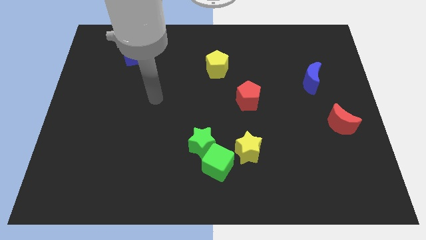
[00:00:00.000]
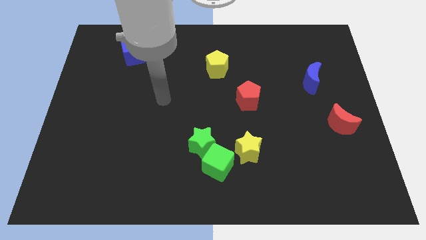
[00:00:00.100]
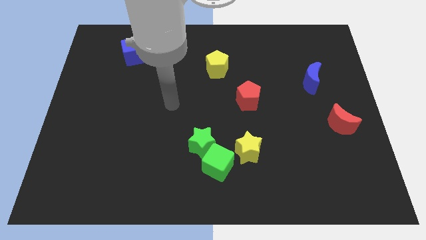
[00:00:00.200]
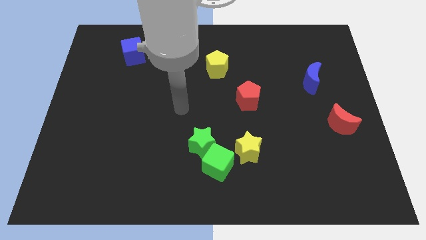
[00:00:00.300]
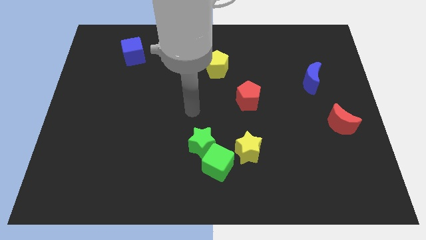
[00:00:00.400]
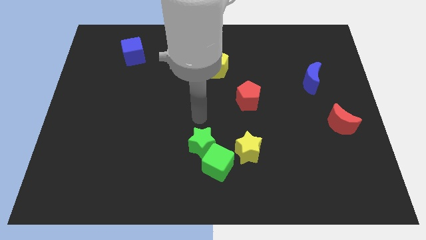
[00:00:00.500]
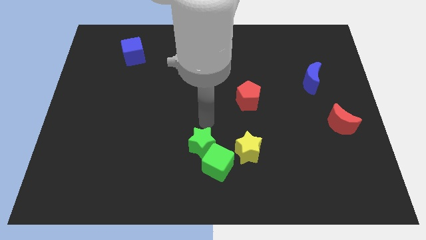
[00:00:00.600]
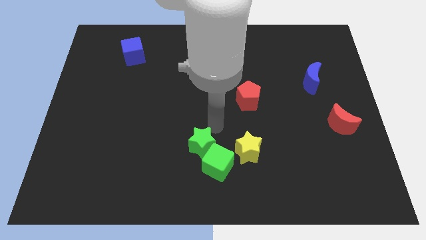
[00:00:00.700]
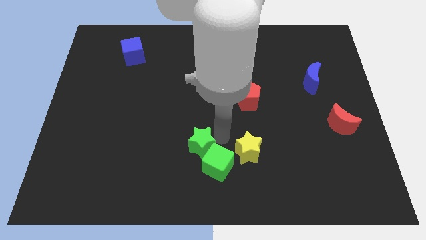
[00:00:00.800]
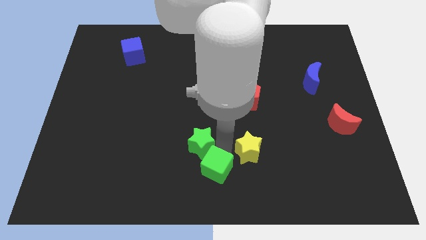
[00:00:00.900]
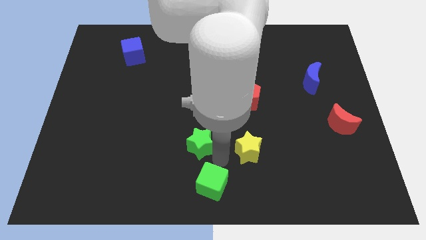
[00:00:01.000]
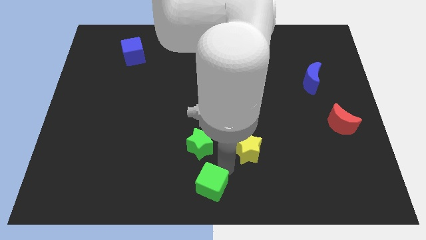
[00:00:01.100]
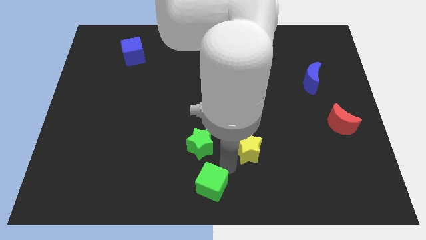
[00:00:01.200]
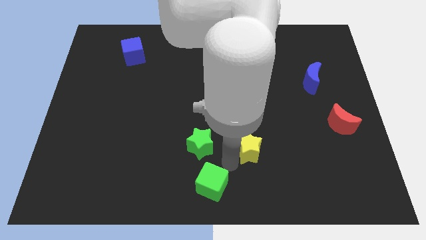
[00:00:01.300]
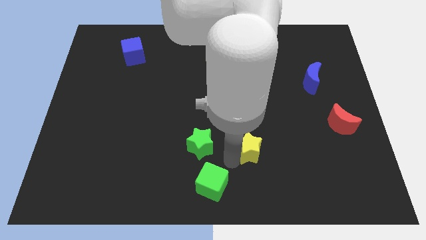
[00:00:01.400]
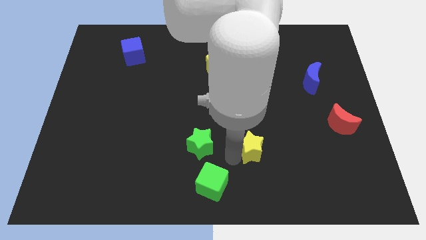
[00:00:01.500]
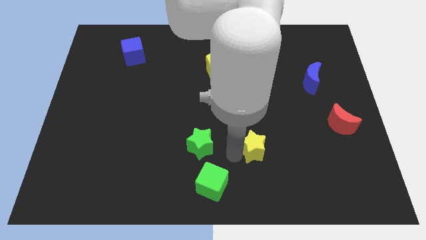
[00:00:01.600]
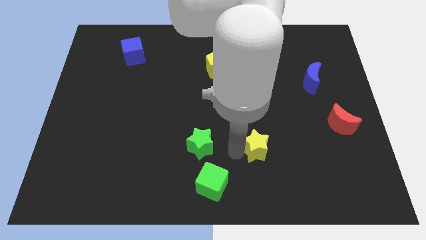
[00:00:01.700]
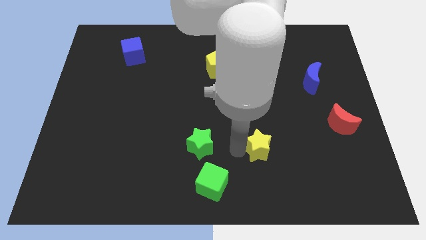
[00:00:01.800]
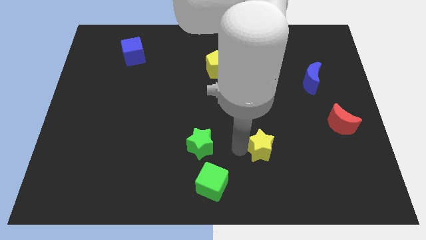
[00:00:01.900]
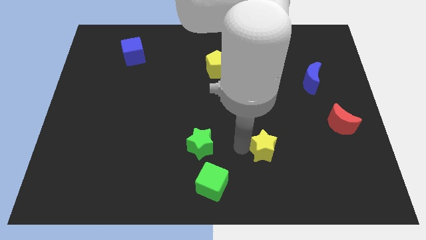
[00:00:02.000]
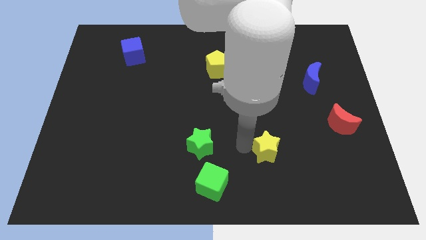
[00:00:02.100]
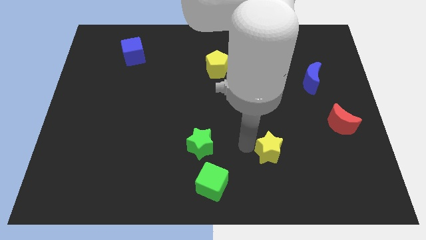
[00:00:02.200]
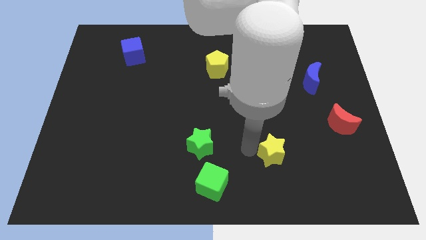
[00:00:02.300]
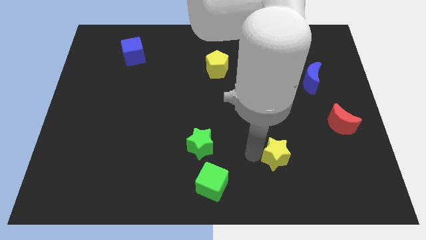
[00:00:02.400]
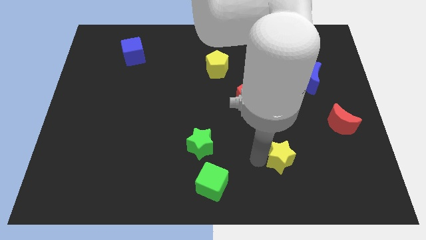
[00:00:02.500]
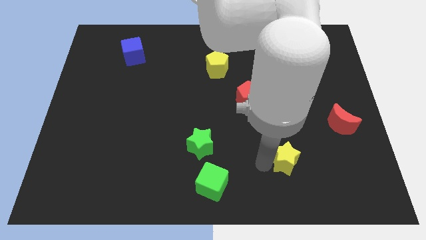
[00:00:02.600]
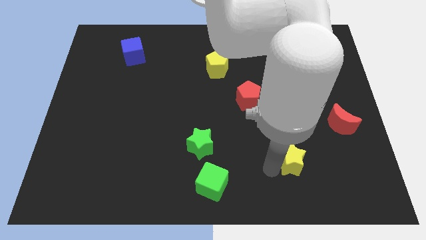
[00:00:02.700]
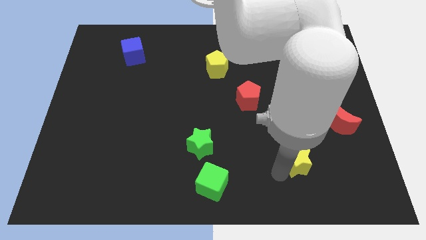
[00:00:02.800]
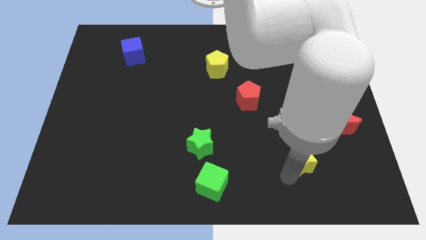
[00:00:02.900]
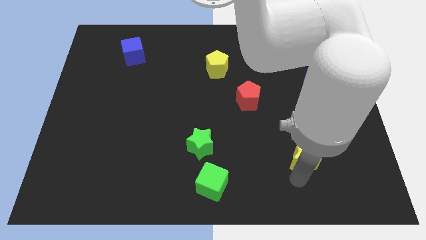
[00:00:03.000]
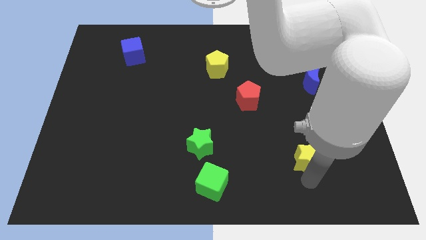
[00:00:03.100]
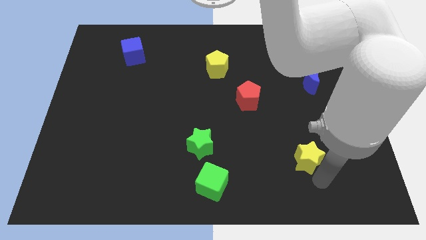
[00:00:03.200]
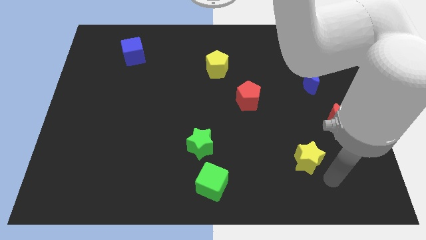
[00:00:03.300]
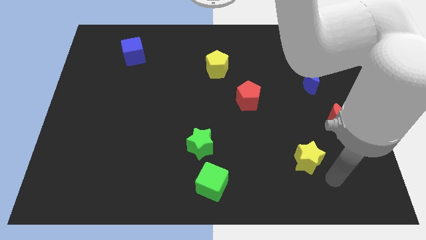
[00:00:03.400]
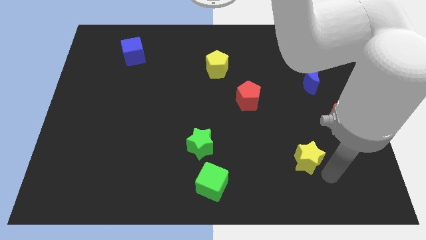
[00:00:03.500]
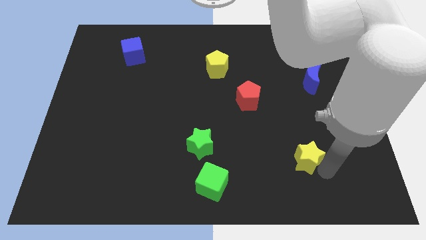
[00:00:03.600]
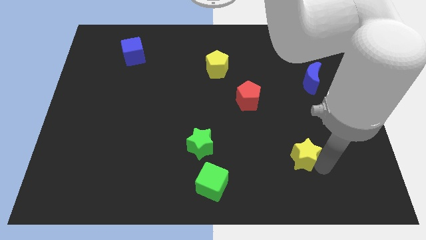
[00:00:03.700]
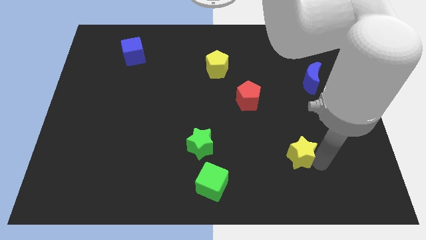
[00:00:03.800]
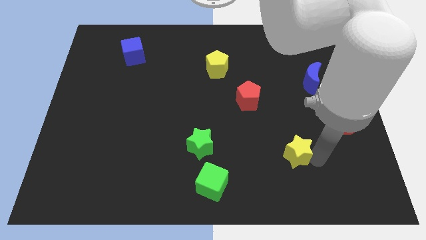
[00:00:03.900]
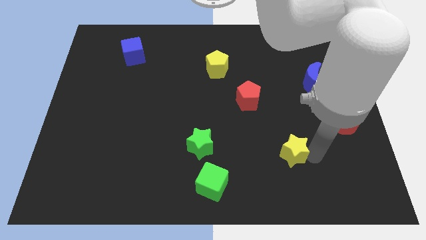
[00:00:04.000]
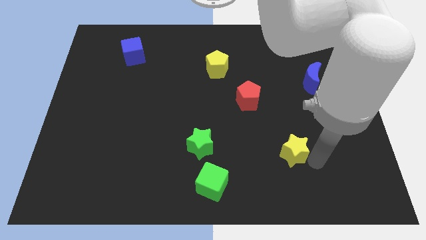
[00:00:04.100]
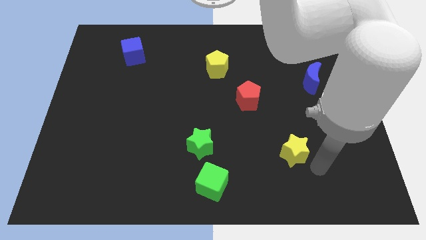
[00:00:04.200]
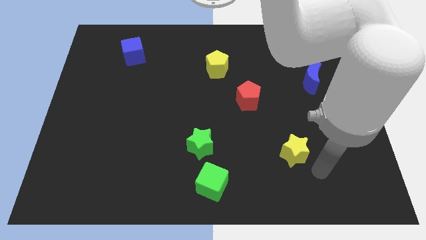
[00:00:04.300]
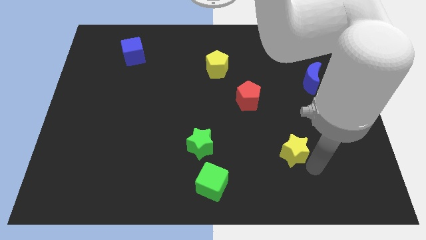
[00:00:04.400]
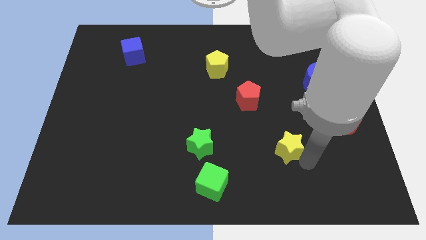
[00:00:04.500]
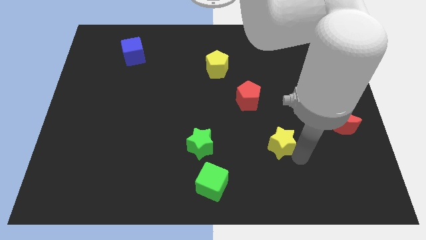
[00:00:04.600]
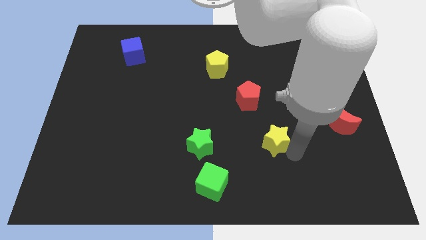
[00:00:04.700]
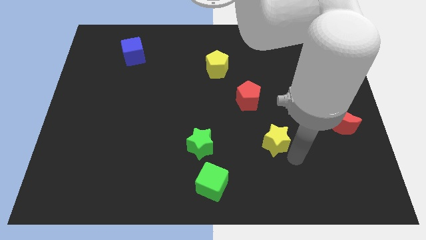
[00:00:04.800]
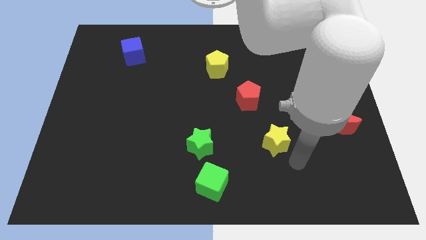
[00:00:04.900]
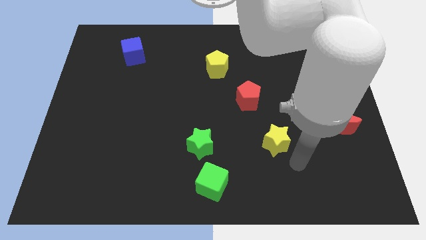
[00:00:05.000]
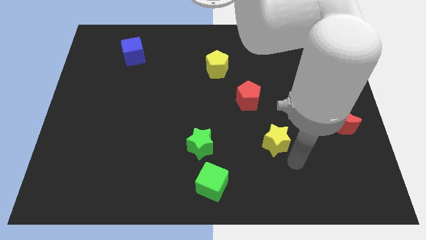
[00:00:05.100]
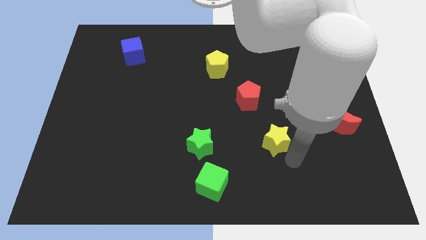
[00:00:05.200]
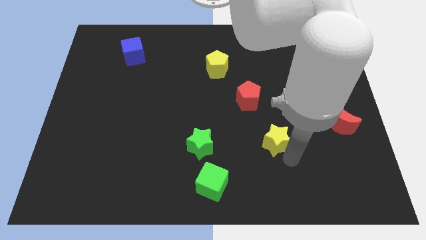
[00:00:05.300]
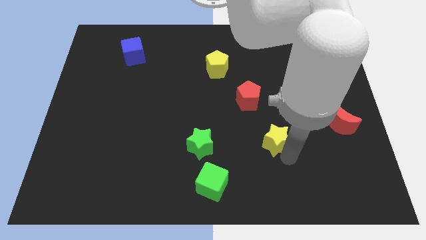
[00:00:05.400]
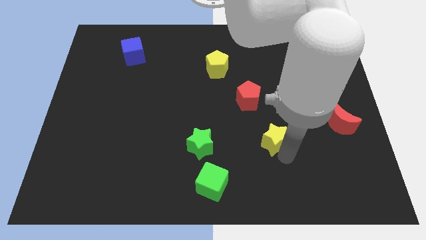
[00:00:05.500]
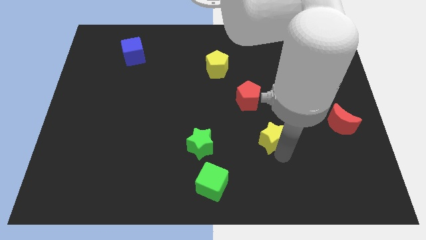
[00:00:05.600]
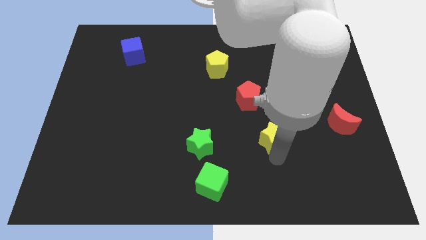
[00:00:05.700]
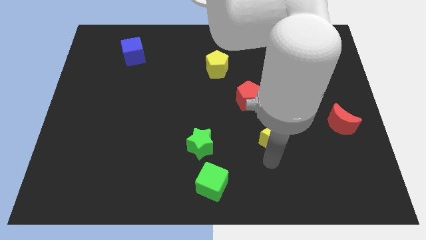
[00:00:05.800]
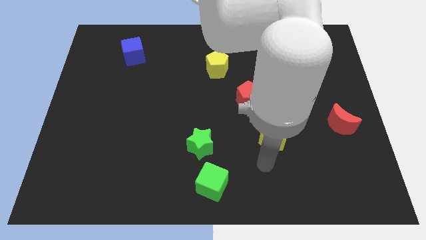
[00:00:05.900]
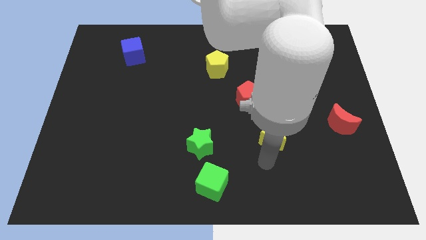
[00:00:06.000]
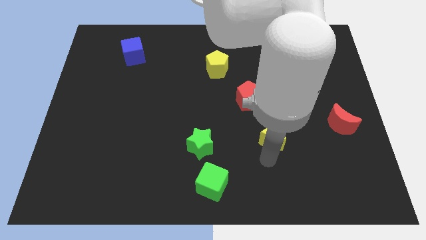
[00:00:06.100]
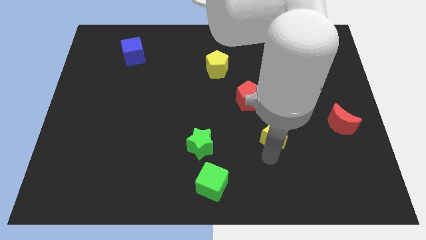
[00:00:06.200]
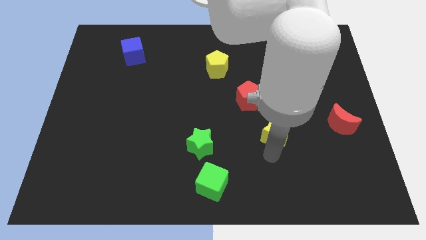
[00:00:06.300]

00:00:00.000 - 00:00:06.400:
slightly slide the yellow star up and right diagonally

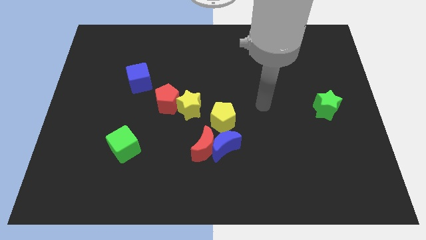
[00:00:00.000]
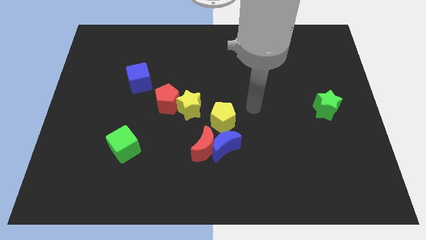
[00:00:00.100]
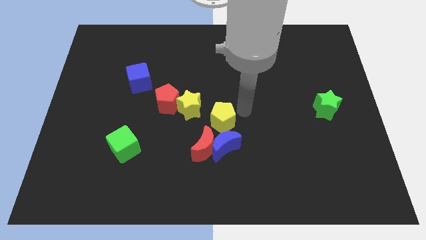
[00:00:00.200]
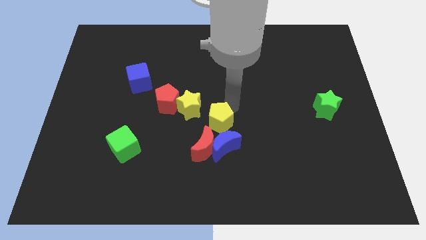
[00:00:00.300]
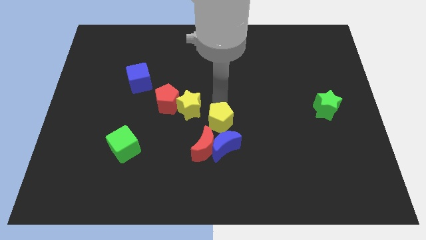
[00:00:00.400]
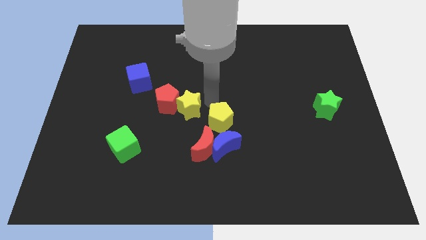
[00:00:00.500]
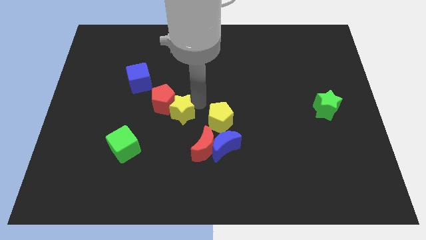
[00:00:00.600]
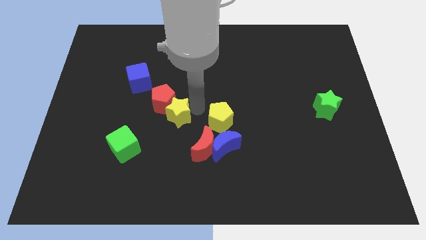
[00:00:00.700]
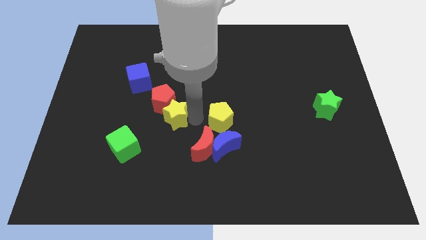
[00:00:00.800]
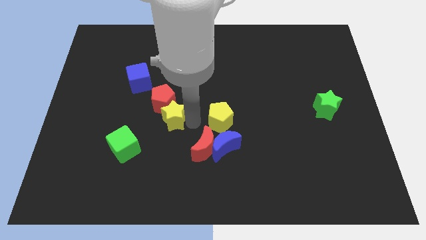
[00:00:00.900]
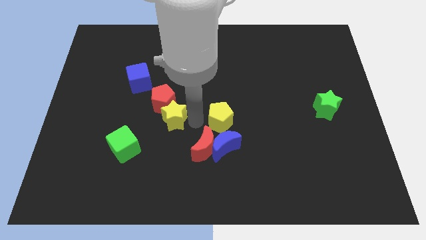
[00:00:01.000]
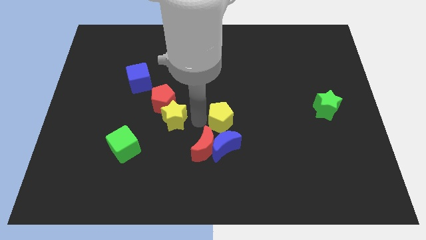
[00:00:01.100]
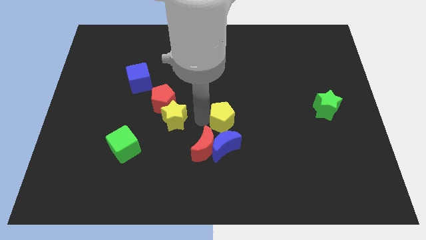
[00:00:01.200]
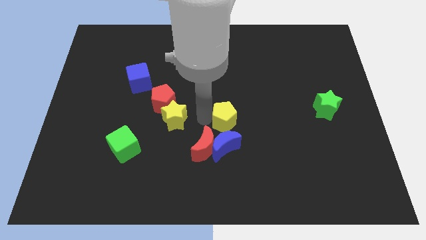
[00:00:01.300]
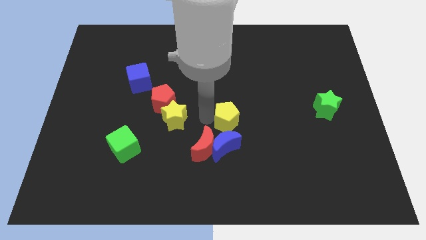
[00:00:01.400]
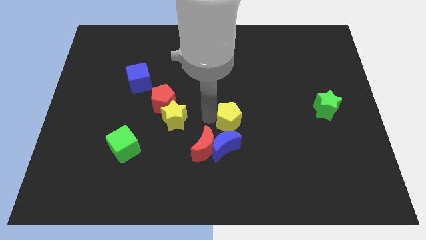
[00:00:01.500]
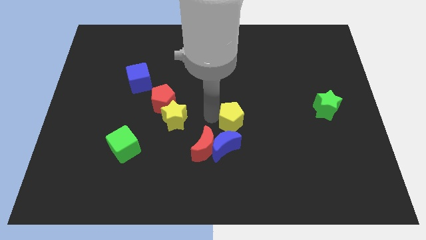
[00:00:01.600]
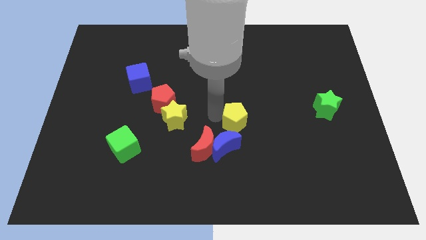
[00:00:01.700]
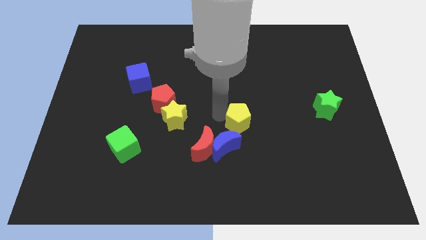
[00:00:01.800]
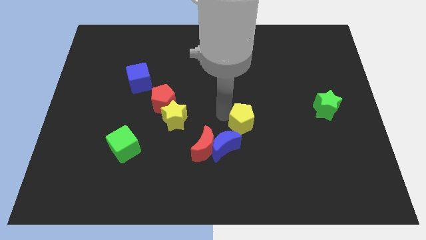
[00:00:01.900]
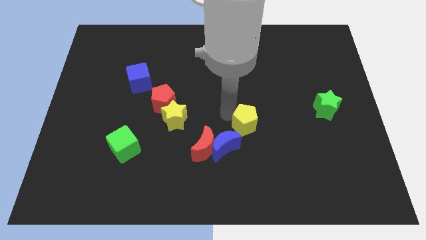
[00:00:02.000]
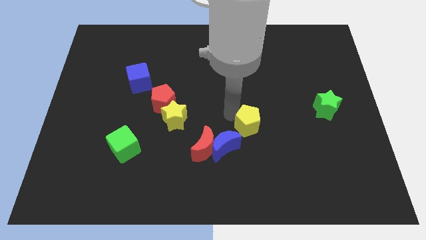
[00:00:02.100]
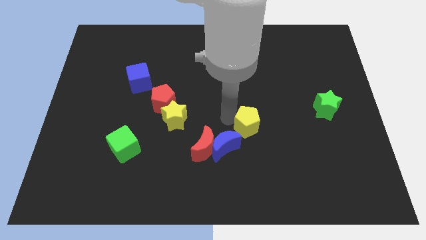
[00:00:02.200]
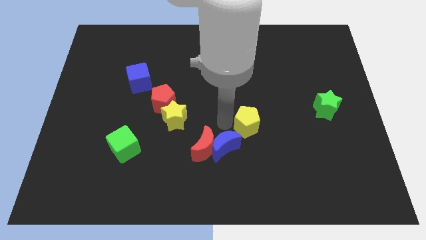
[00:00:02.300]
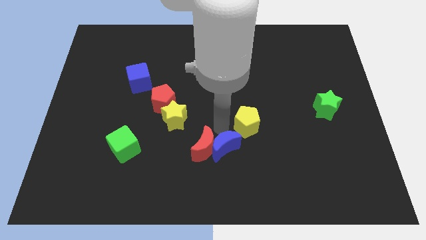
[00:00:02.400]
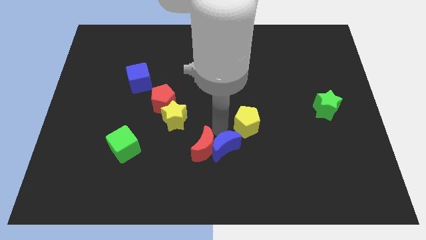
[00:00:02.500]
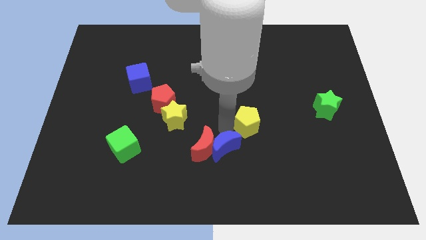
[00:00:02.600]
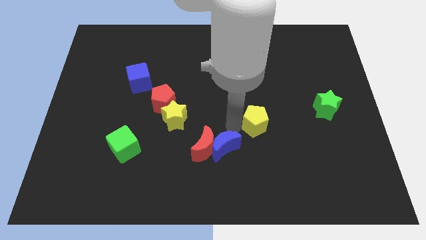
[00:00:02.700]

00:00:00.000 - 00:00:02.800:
slightly push the yellow pentagon right
